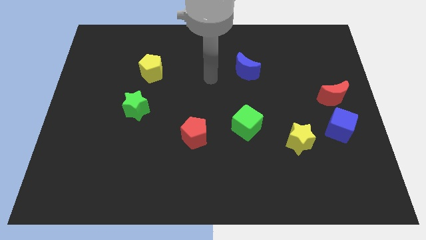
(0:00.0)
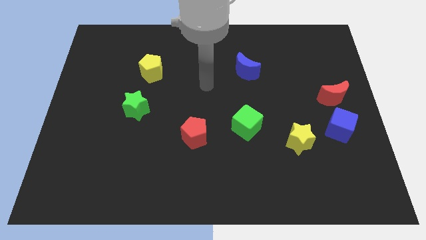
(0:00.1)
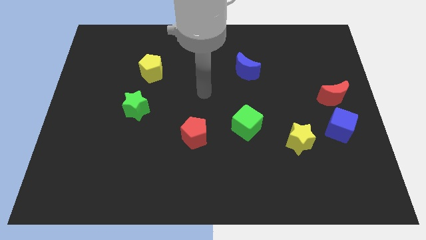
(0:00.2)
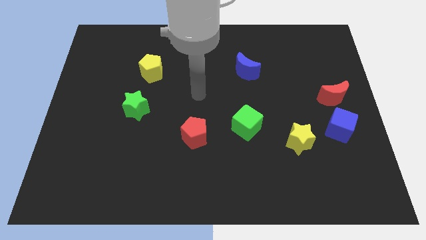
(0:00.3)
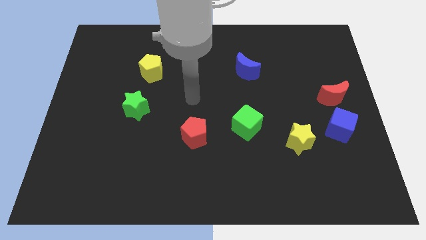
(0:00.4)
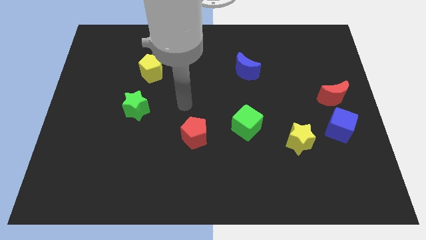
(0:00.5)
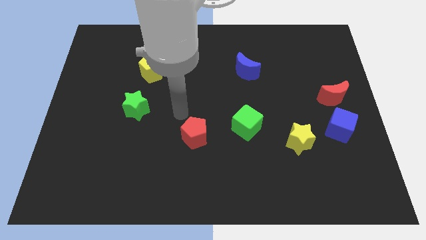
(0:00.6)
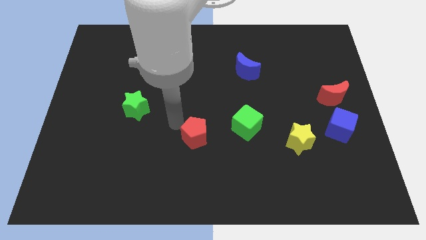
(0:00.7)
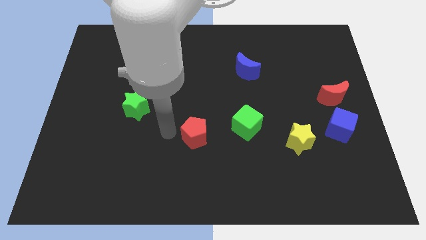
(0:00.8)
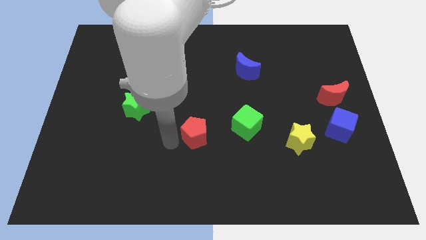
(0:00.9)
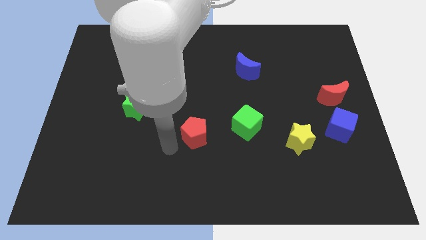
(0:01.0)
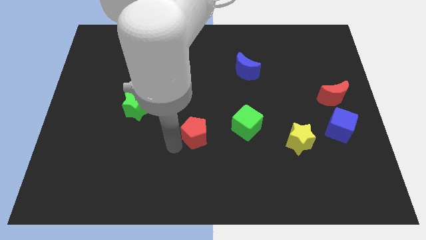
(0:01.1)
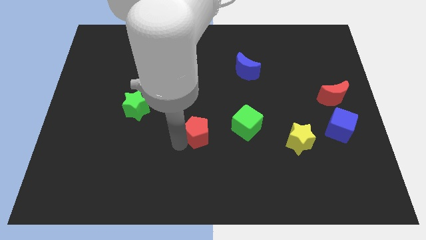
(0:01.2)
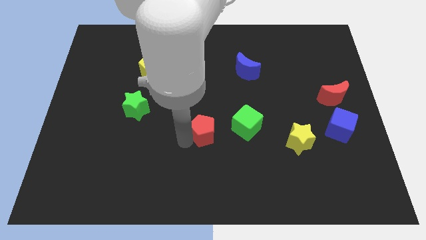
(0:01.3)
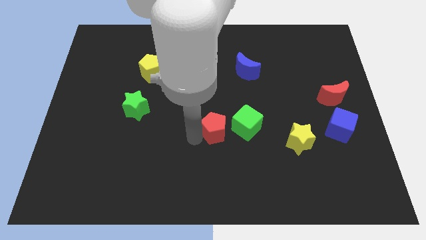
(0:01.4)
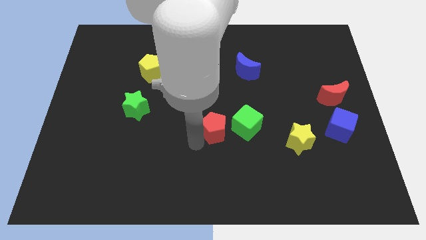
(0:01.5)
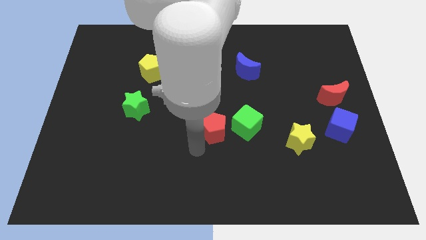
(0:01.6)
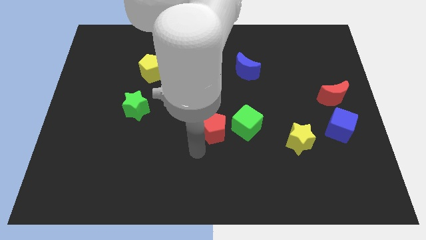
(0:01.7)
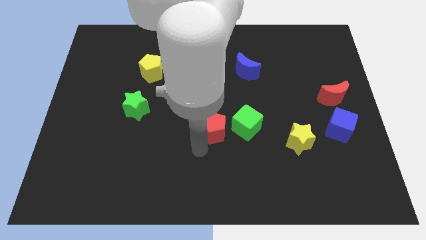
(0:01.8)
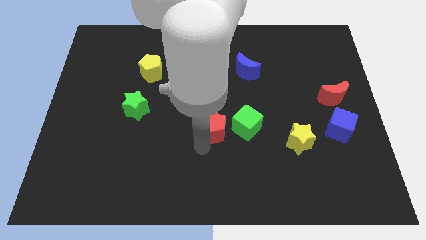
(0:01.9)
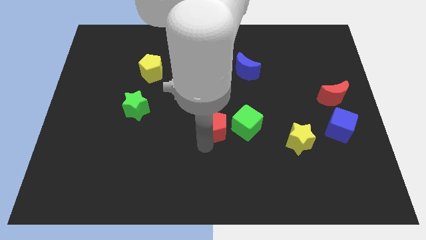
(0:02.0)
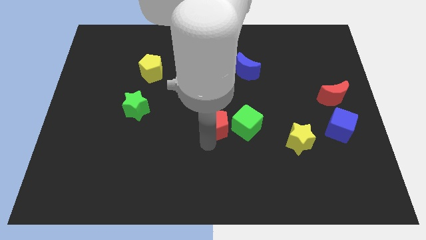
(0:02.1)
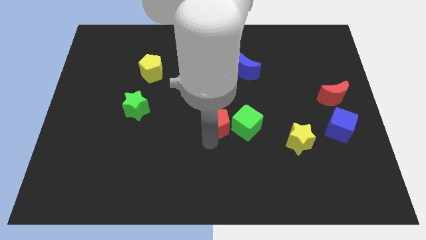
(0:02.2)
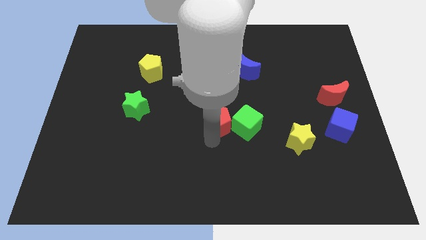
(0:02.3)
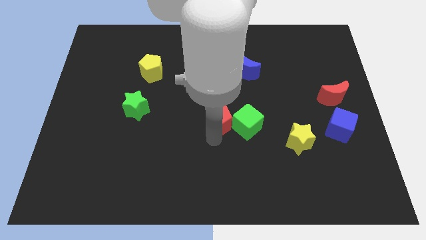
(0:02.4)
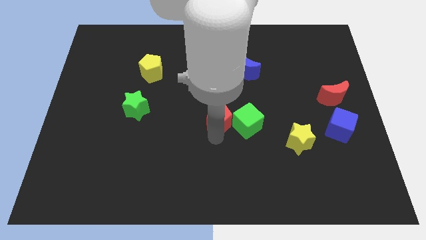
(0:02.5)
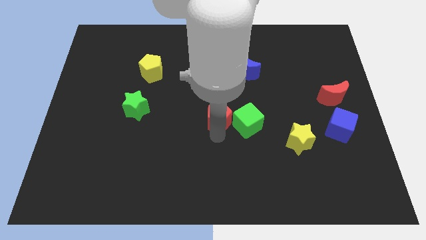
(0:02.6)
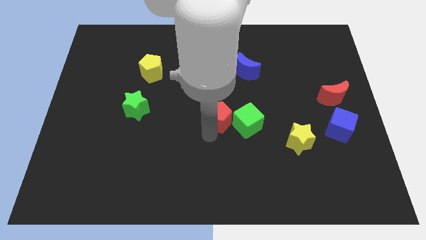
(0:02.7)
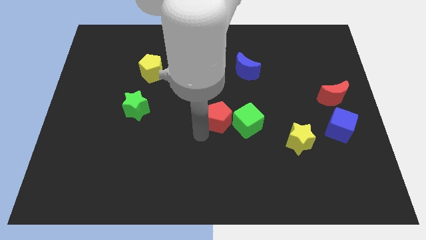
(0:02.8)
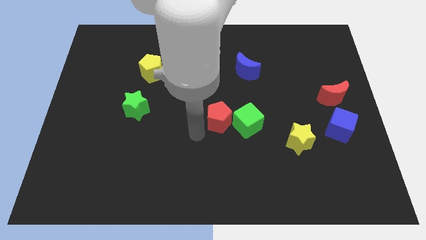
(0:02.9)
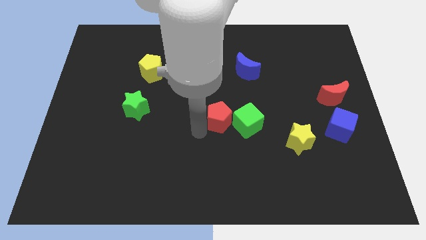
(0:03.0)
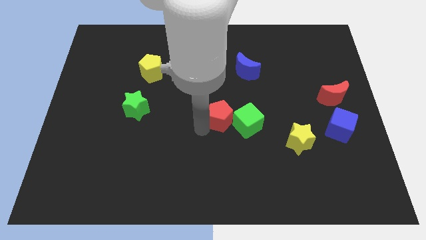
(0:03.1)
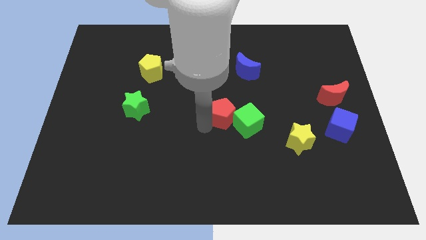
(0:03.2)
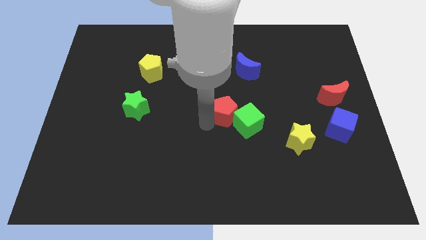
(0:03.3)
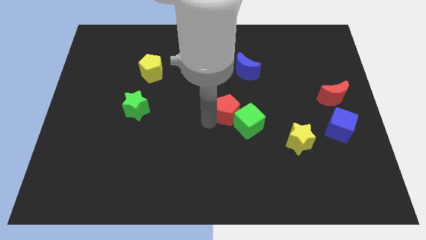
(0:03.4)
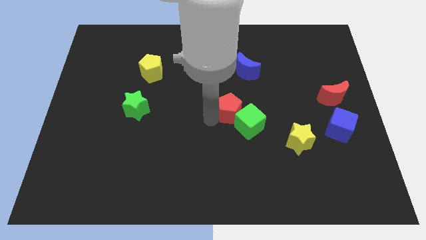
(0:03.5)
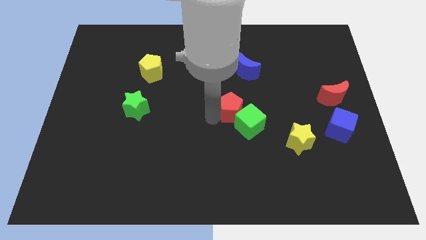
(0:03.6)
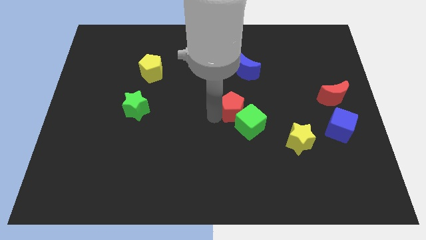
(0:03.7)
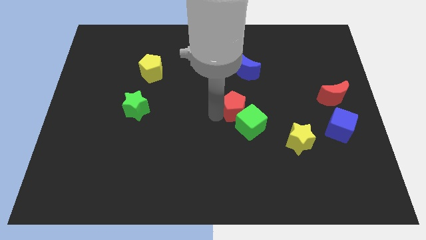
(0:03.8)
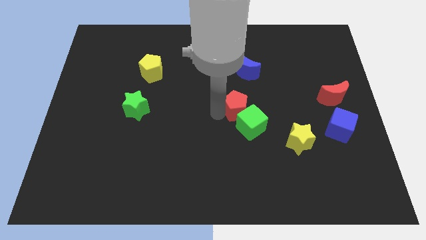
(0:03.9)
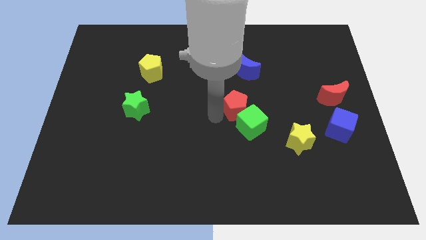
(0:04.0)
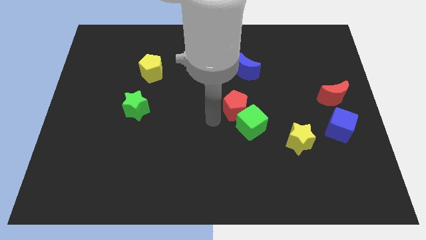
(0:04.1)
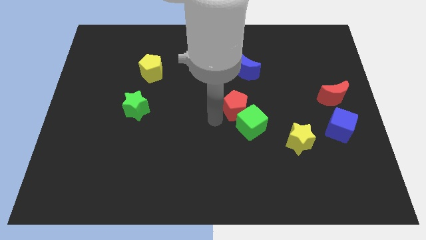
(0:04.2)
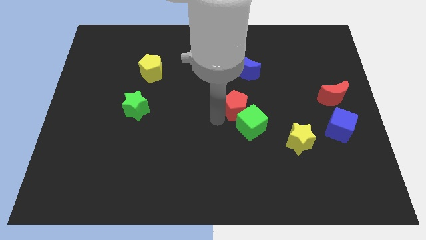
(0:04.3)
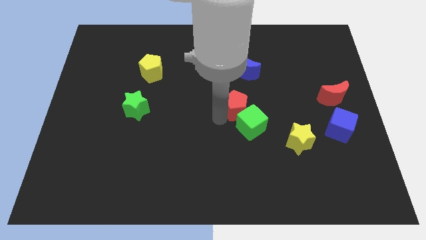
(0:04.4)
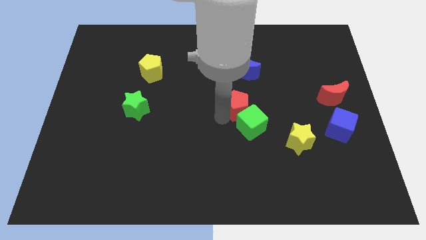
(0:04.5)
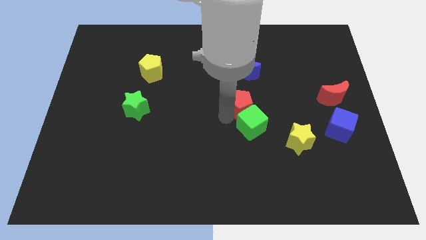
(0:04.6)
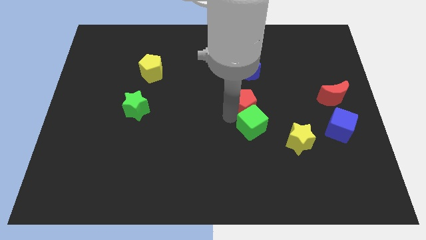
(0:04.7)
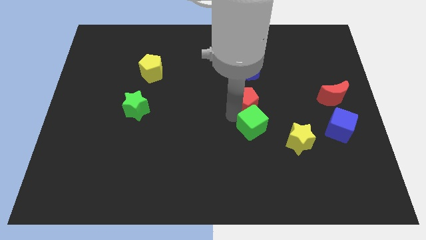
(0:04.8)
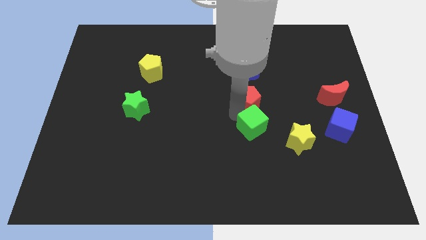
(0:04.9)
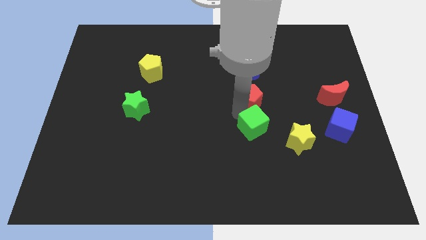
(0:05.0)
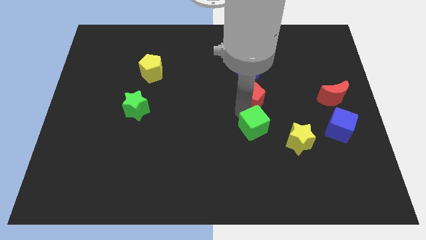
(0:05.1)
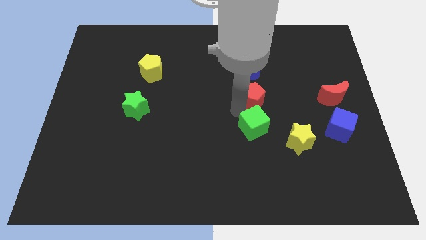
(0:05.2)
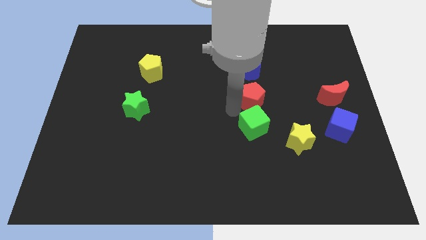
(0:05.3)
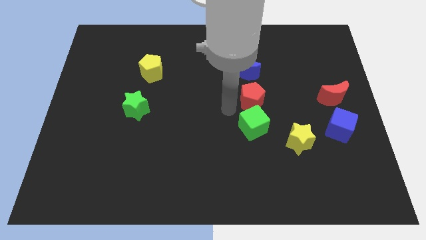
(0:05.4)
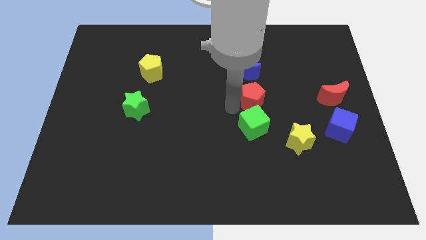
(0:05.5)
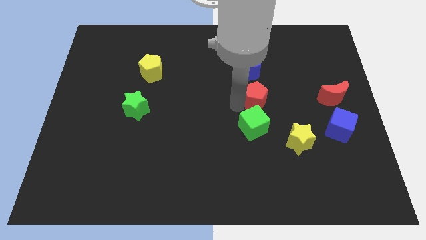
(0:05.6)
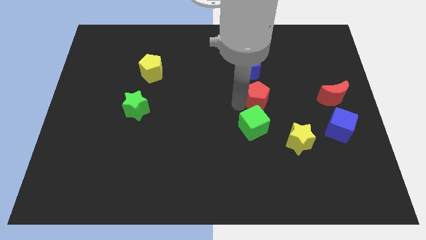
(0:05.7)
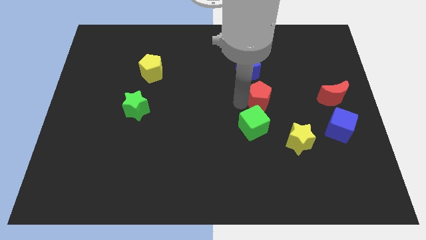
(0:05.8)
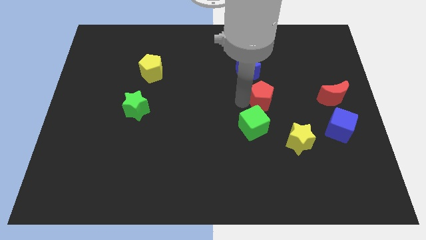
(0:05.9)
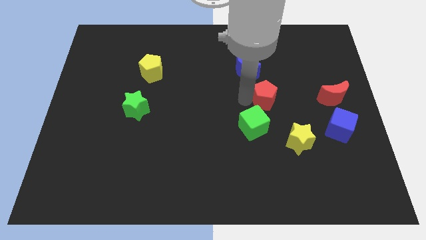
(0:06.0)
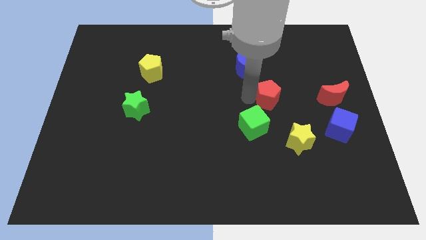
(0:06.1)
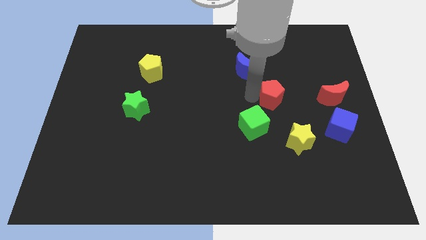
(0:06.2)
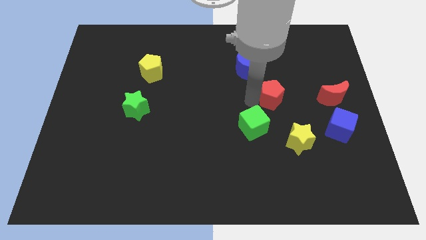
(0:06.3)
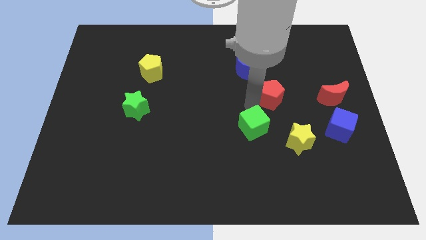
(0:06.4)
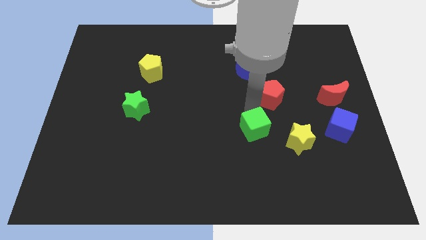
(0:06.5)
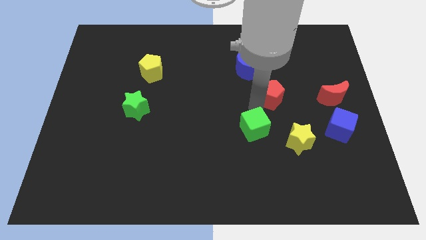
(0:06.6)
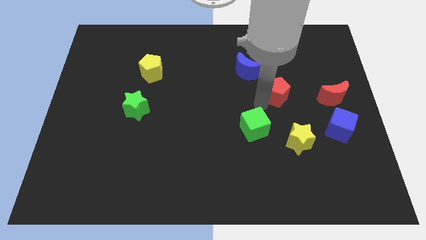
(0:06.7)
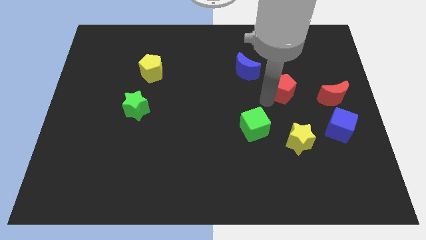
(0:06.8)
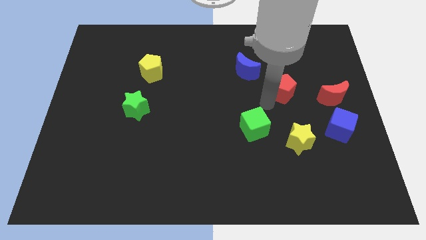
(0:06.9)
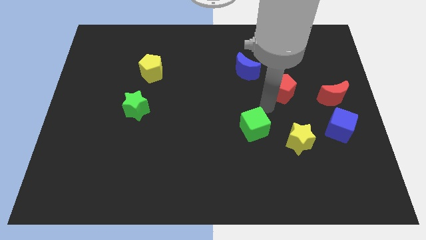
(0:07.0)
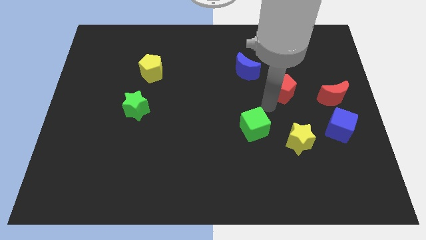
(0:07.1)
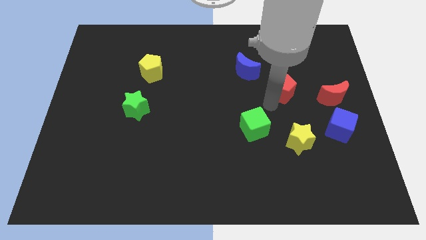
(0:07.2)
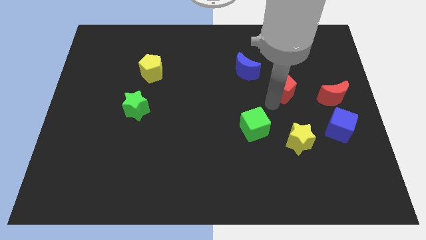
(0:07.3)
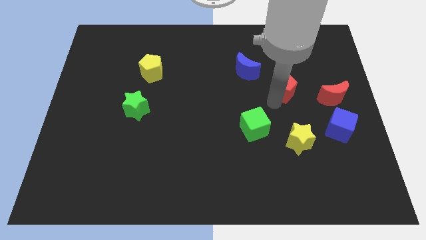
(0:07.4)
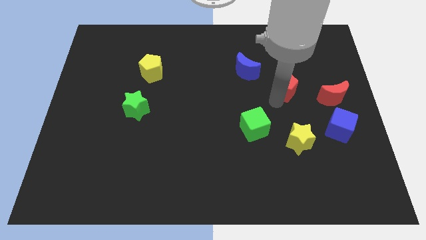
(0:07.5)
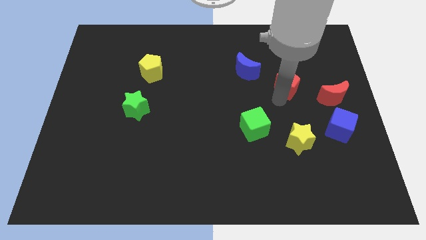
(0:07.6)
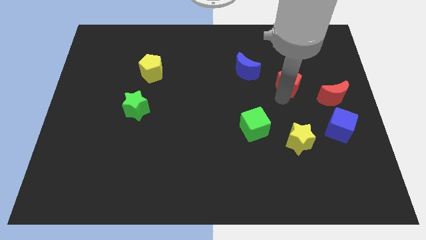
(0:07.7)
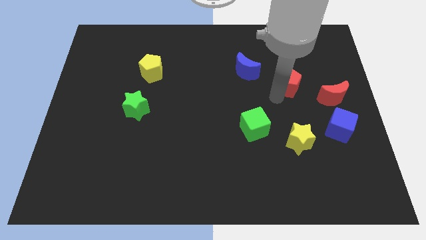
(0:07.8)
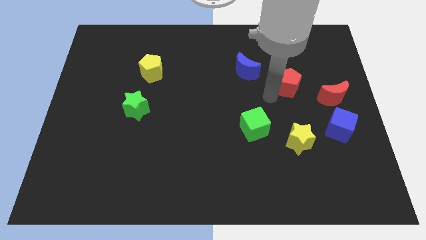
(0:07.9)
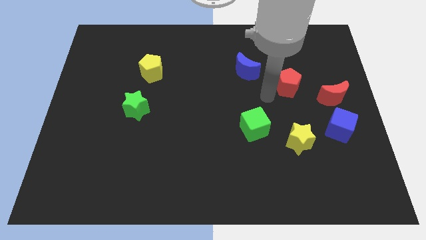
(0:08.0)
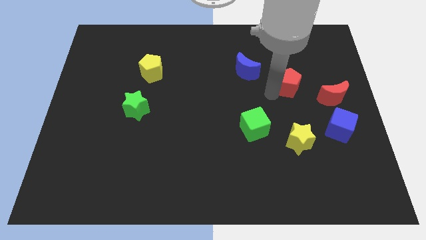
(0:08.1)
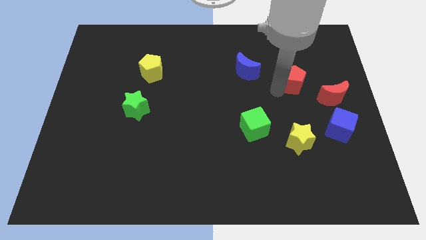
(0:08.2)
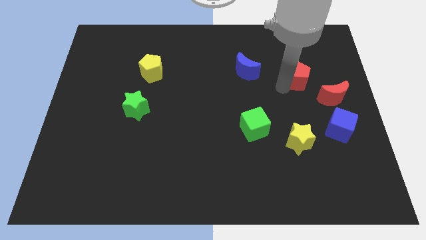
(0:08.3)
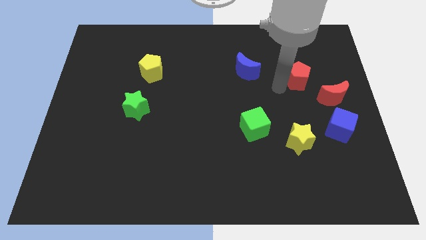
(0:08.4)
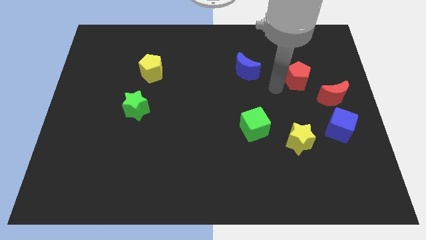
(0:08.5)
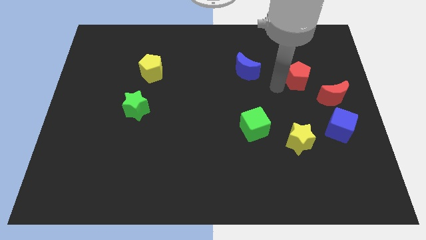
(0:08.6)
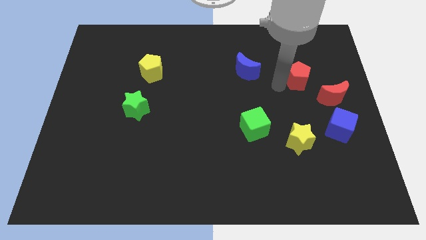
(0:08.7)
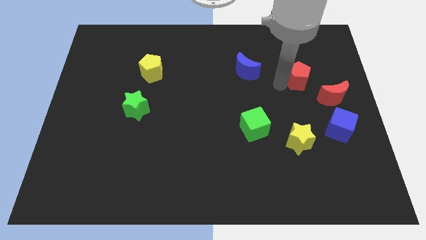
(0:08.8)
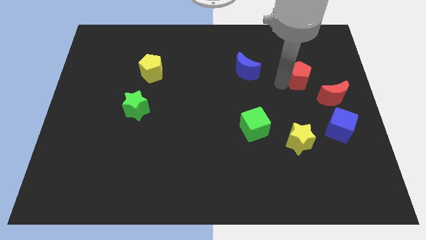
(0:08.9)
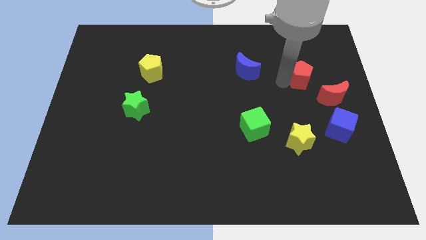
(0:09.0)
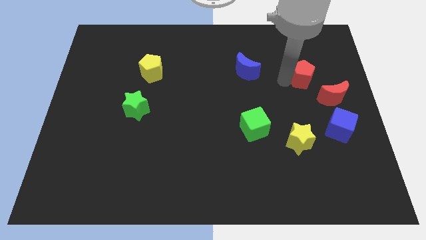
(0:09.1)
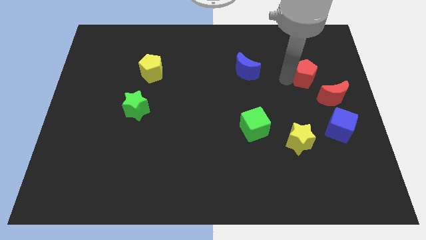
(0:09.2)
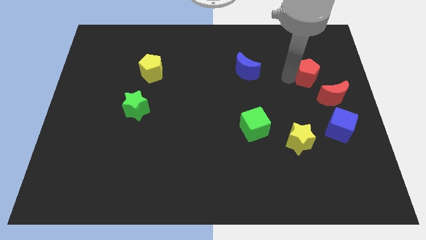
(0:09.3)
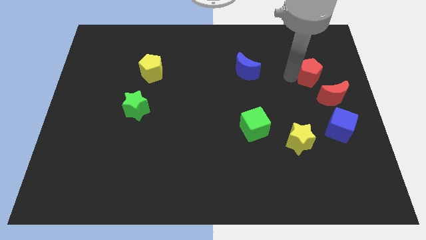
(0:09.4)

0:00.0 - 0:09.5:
push the red pentagon to the top of the red moon
